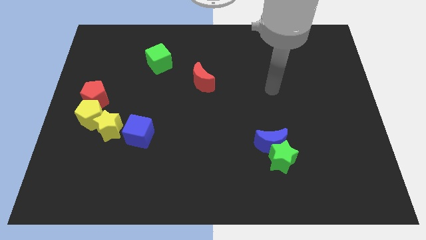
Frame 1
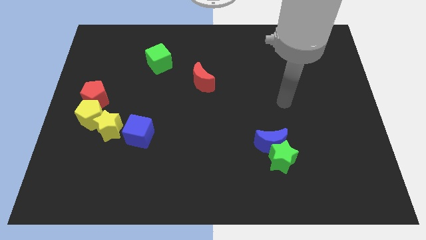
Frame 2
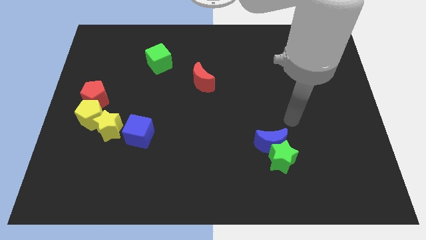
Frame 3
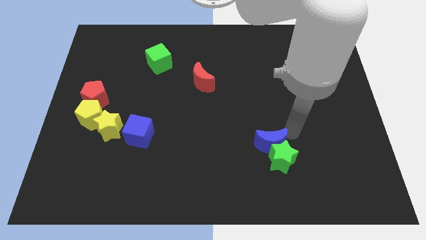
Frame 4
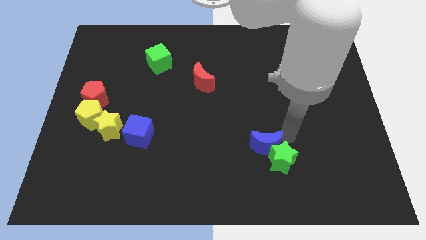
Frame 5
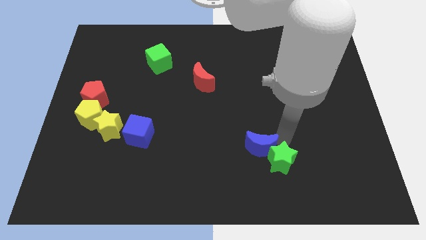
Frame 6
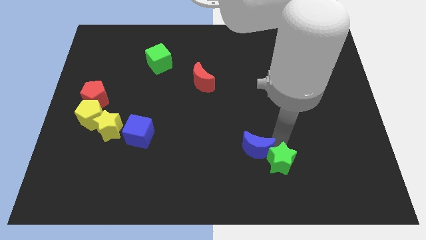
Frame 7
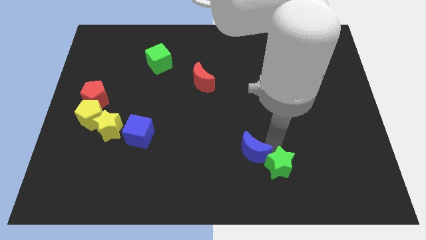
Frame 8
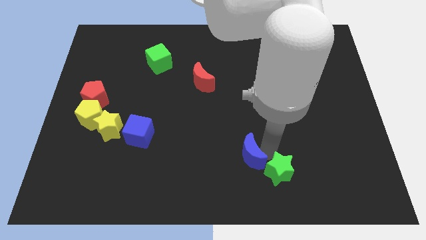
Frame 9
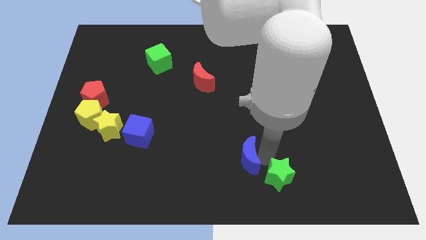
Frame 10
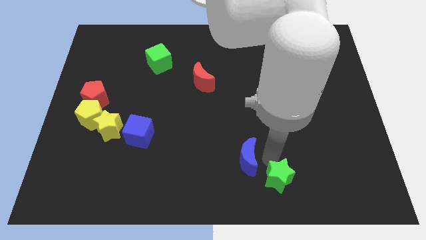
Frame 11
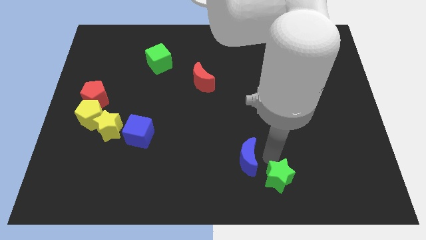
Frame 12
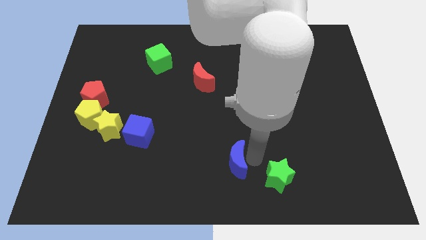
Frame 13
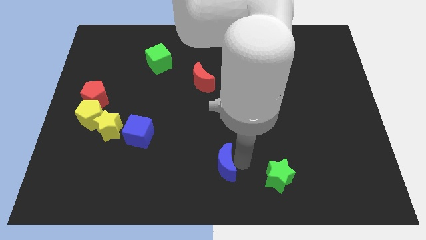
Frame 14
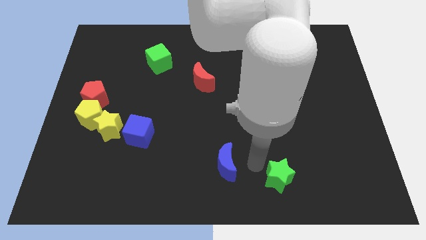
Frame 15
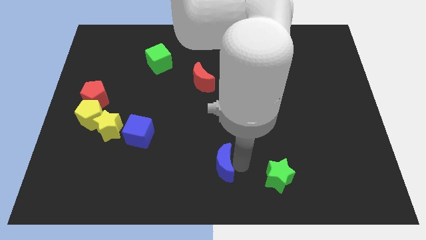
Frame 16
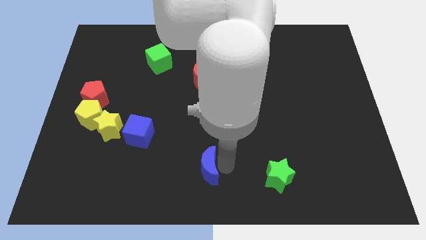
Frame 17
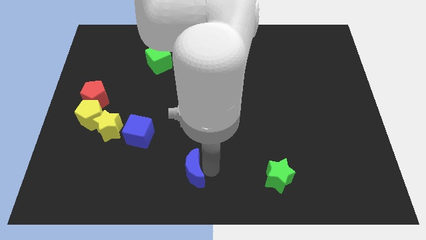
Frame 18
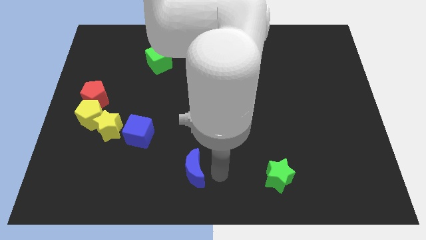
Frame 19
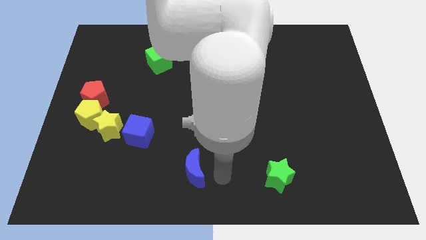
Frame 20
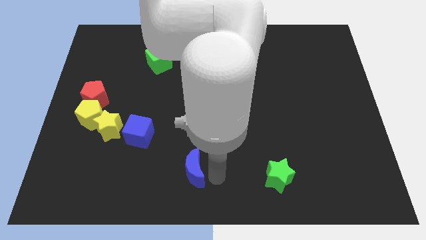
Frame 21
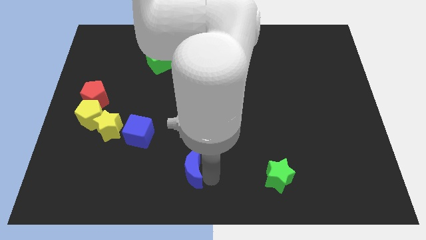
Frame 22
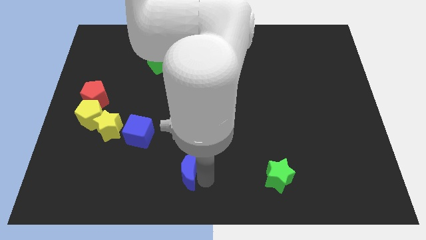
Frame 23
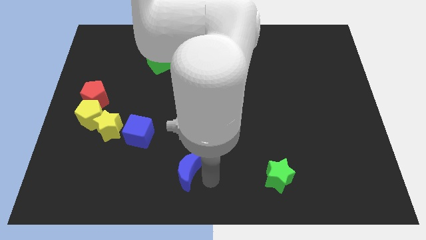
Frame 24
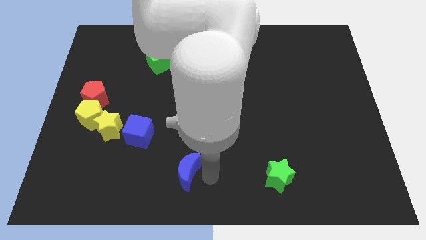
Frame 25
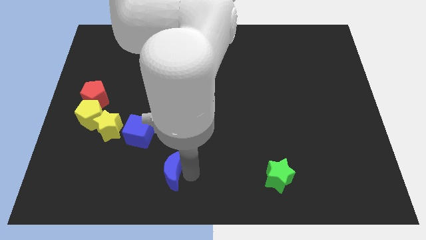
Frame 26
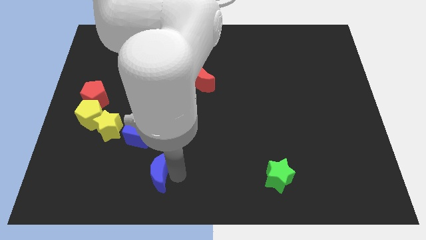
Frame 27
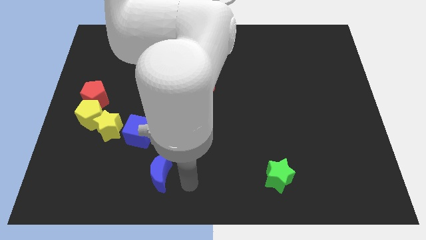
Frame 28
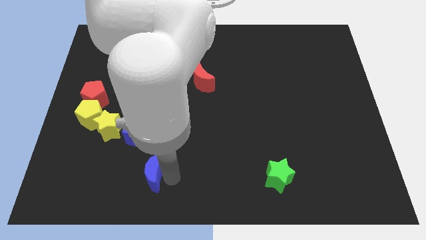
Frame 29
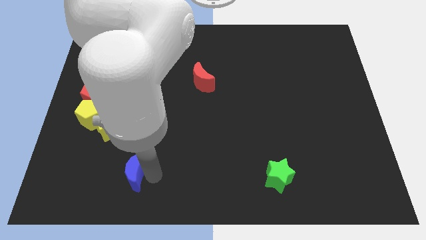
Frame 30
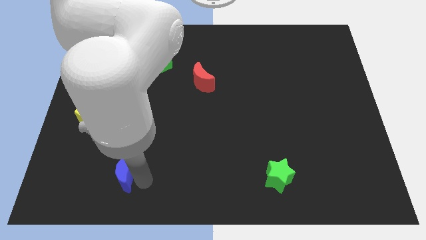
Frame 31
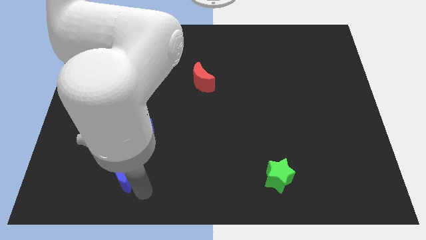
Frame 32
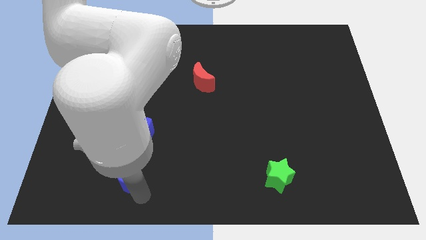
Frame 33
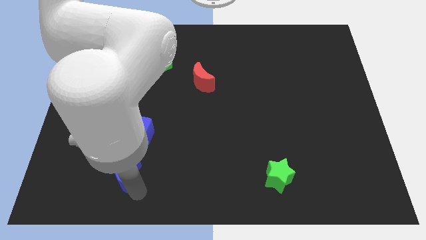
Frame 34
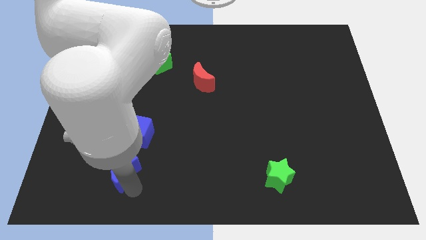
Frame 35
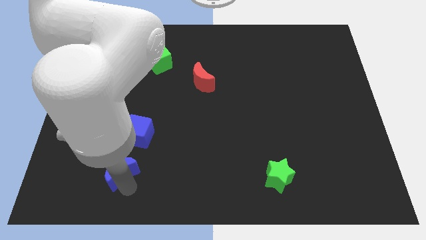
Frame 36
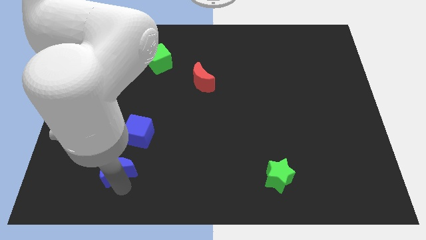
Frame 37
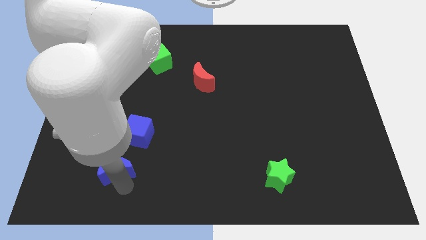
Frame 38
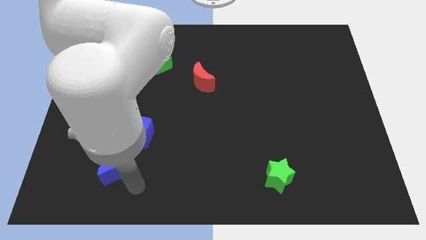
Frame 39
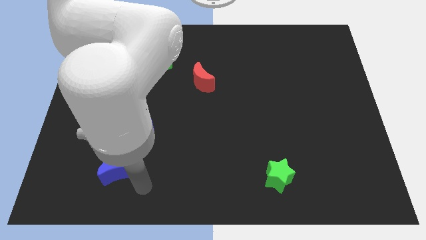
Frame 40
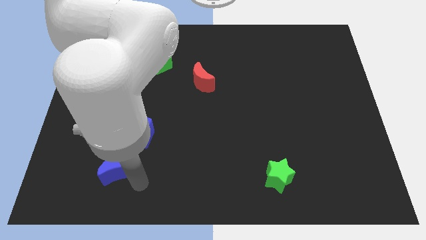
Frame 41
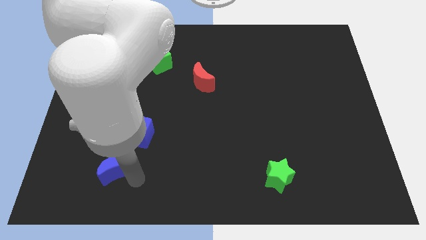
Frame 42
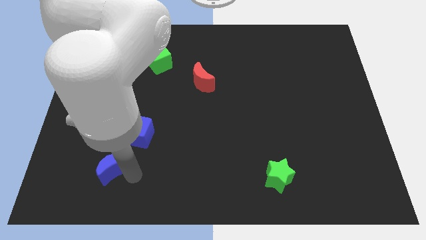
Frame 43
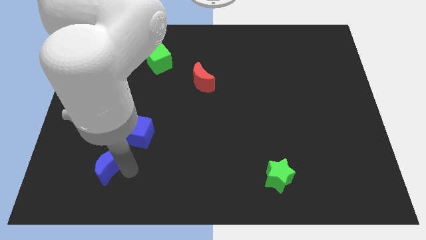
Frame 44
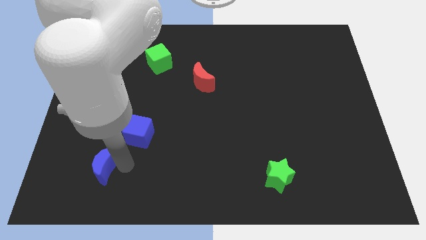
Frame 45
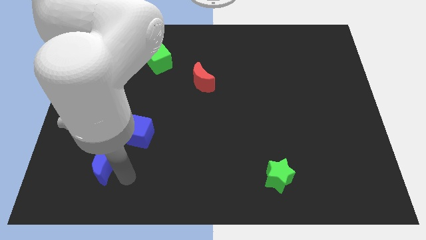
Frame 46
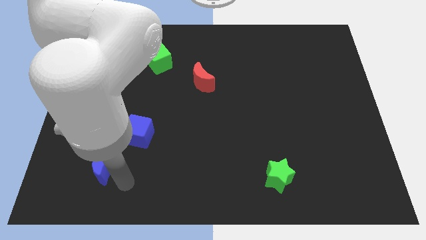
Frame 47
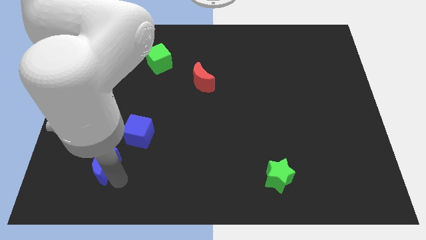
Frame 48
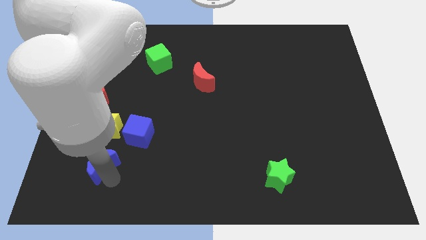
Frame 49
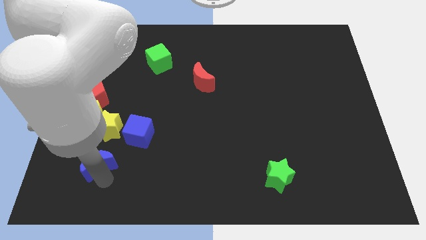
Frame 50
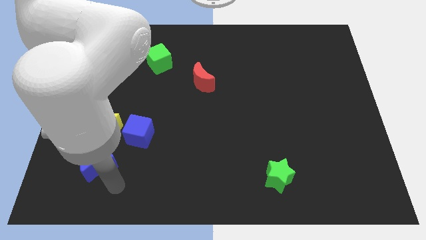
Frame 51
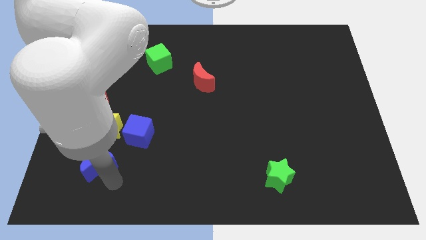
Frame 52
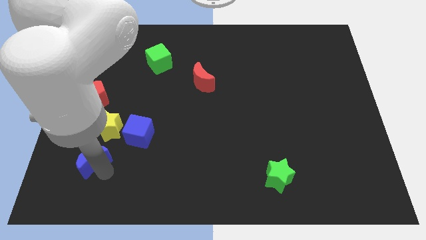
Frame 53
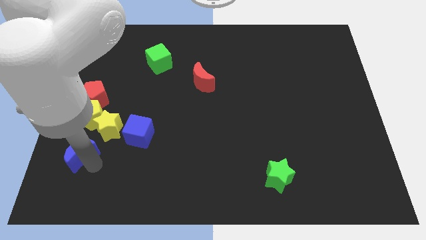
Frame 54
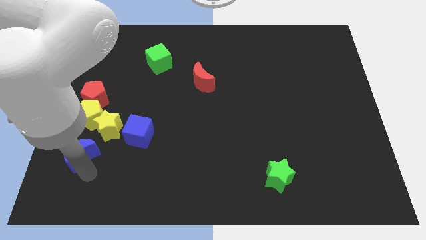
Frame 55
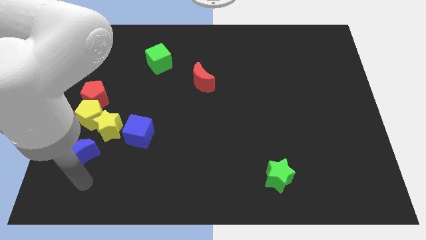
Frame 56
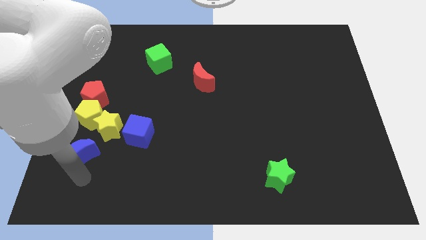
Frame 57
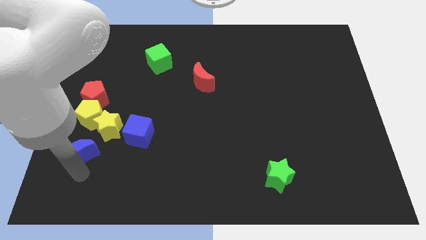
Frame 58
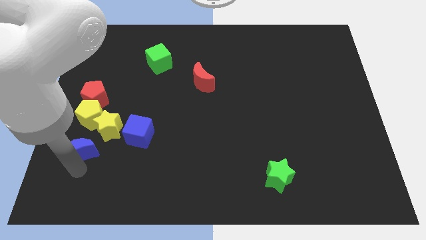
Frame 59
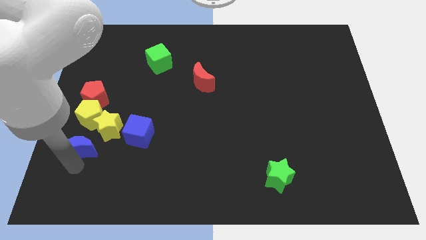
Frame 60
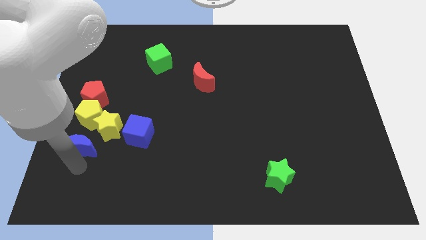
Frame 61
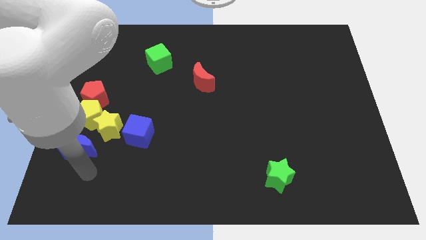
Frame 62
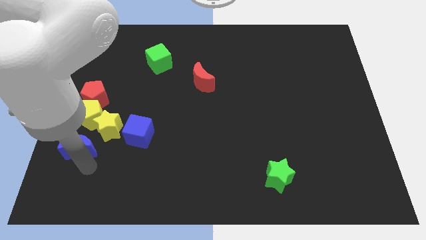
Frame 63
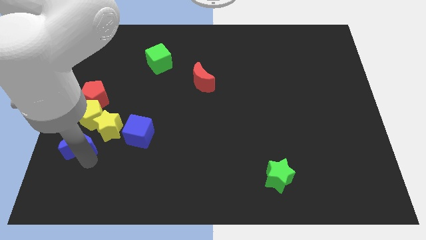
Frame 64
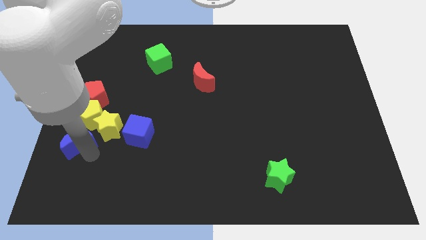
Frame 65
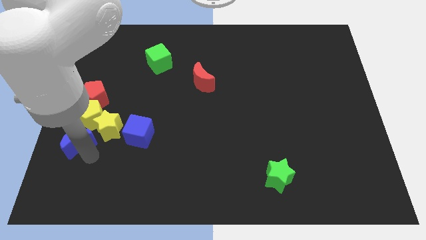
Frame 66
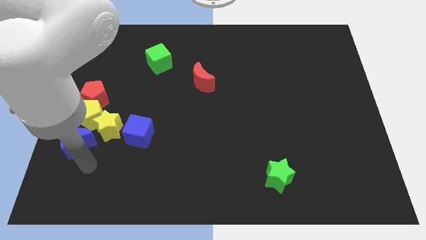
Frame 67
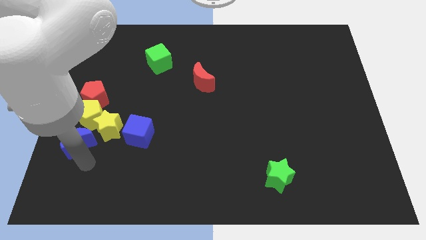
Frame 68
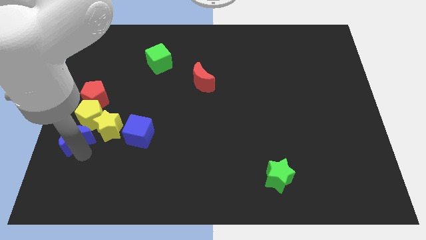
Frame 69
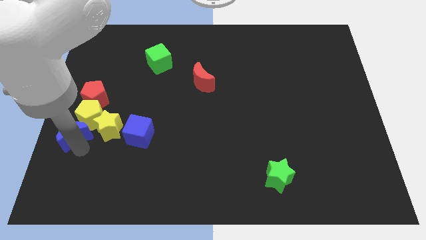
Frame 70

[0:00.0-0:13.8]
slide the blue moon close to the yellow pentagon
